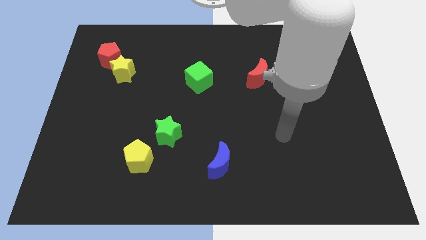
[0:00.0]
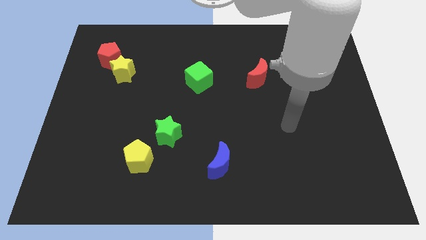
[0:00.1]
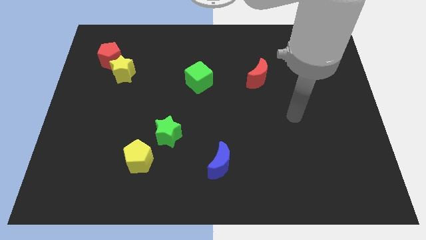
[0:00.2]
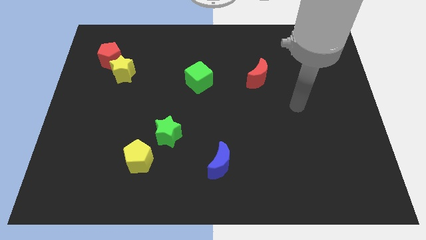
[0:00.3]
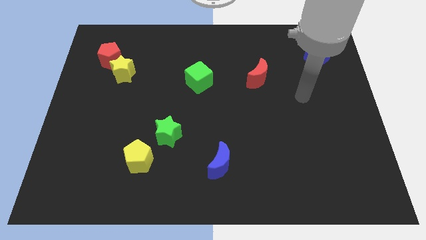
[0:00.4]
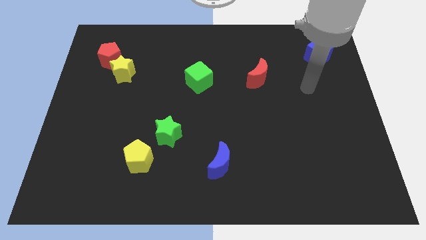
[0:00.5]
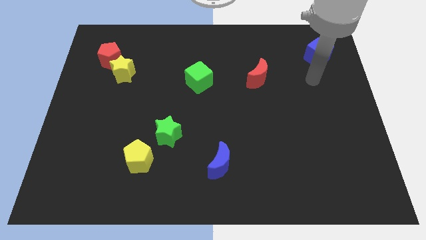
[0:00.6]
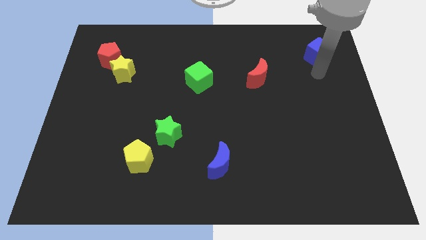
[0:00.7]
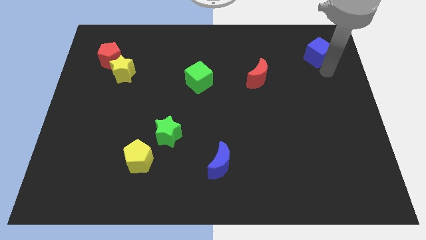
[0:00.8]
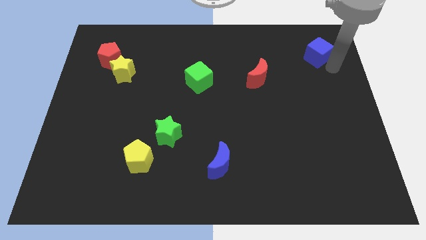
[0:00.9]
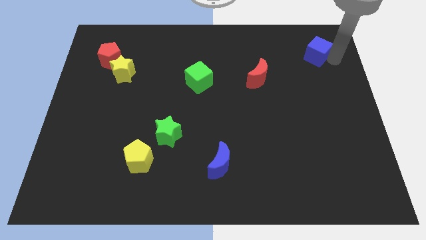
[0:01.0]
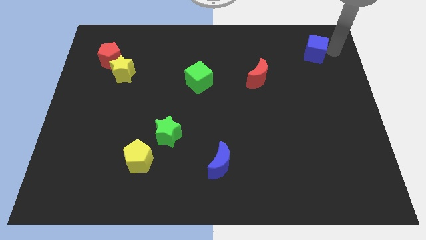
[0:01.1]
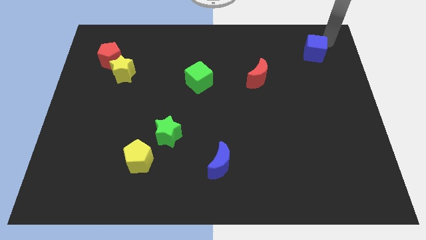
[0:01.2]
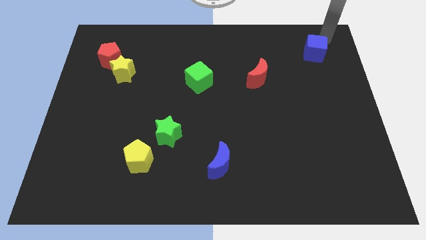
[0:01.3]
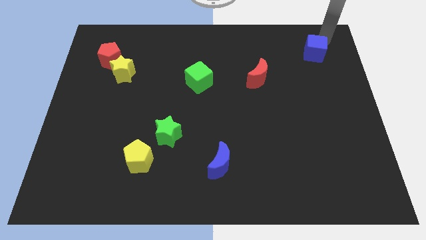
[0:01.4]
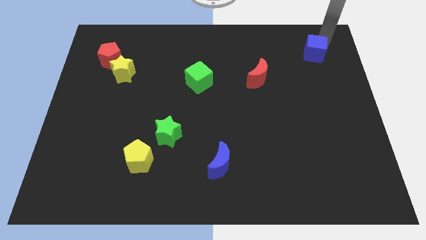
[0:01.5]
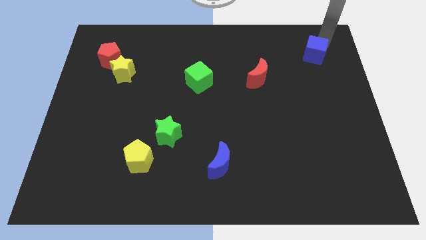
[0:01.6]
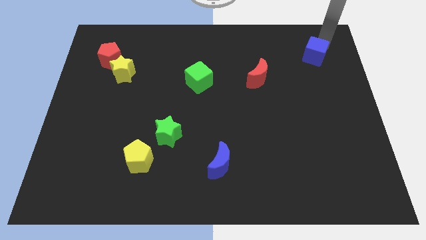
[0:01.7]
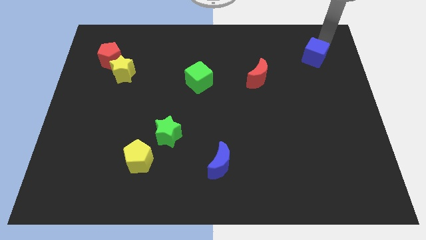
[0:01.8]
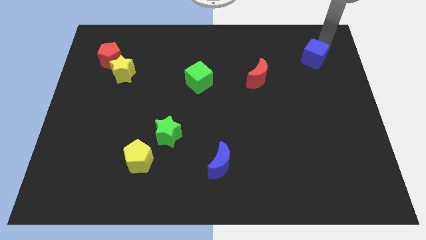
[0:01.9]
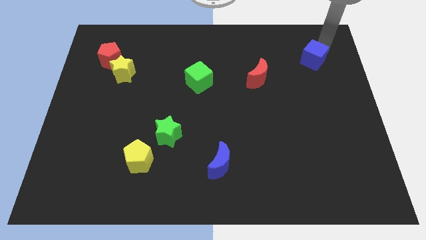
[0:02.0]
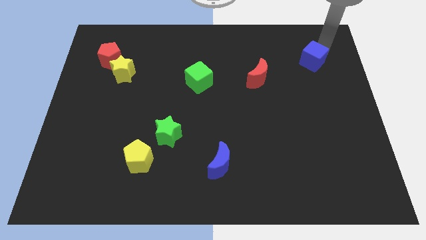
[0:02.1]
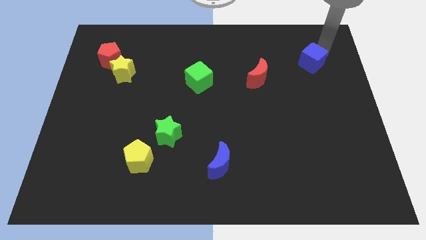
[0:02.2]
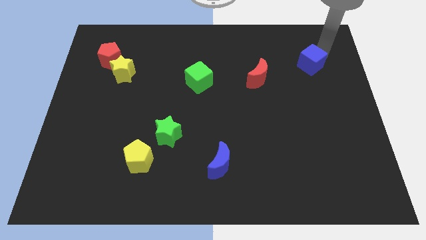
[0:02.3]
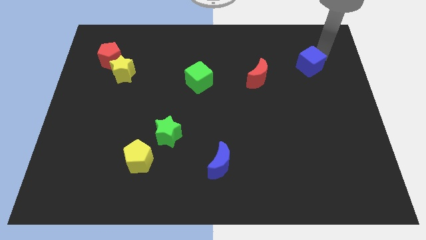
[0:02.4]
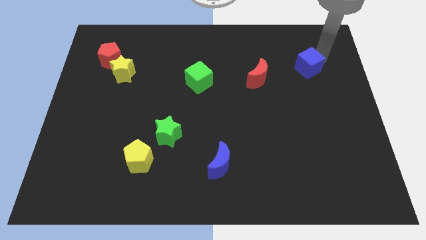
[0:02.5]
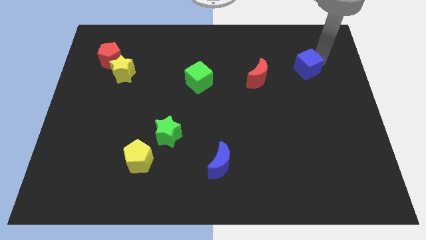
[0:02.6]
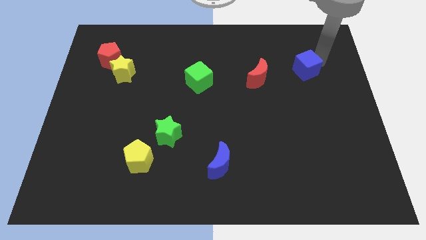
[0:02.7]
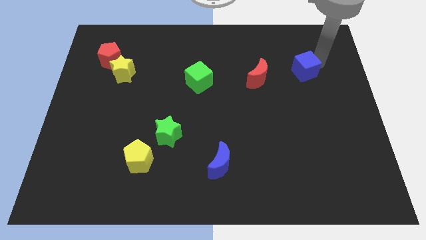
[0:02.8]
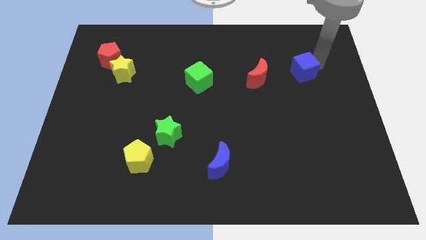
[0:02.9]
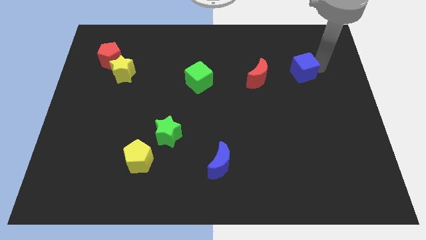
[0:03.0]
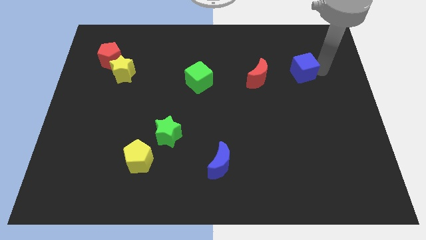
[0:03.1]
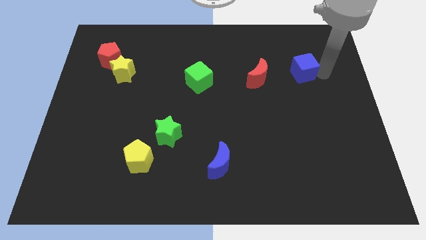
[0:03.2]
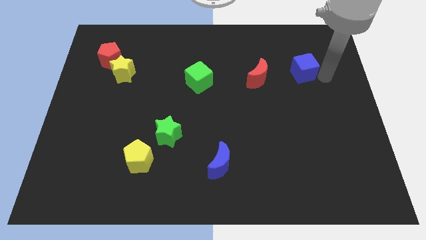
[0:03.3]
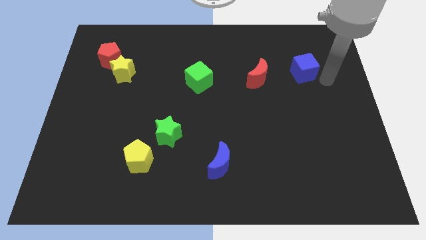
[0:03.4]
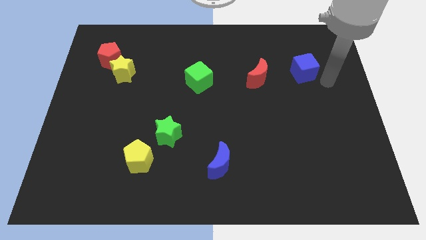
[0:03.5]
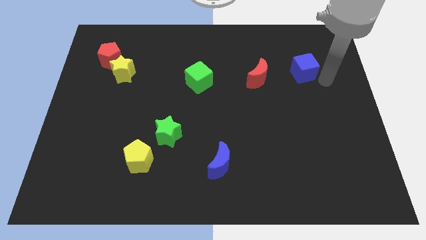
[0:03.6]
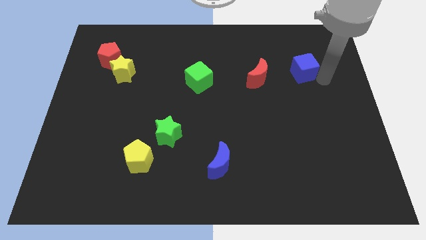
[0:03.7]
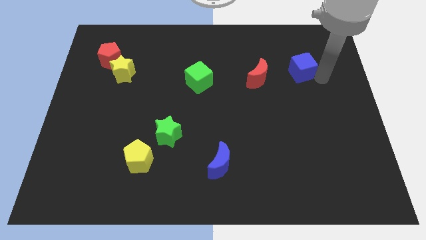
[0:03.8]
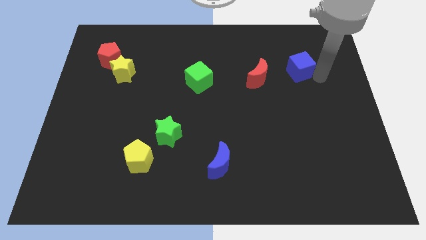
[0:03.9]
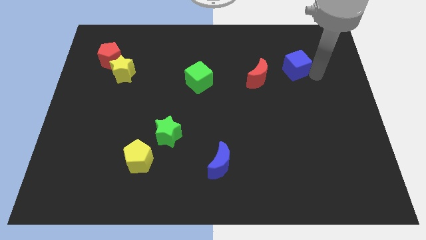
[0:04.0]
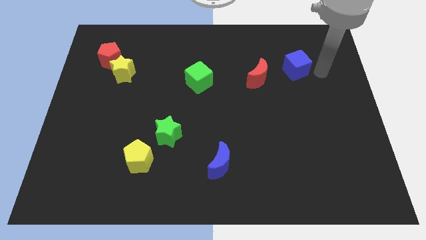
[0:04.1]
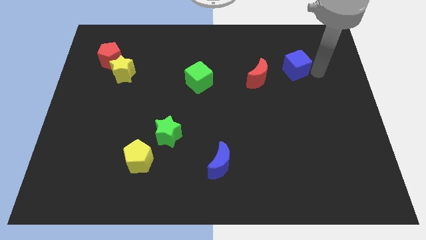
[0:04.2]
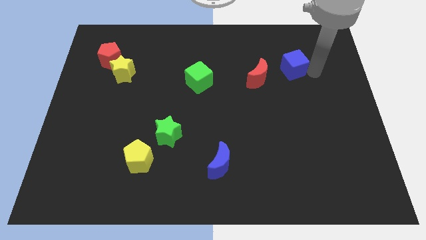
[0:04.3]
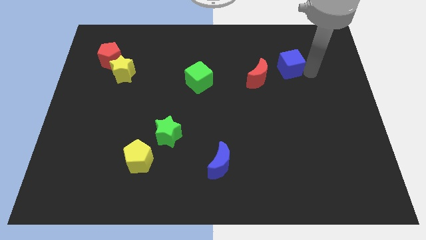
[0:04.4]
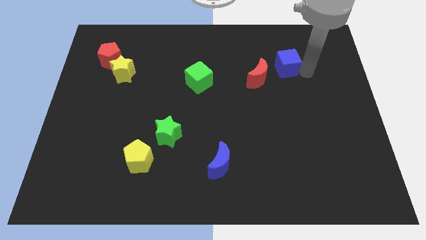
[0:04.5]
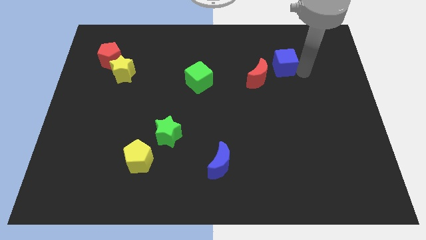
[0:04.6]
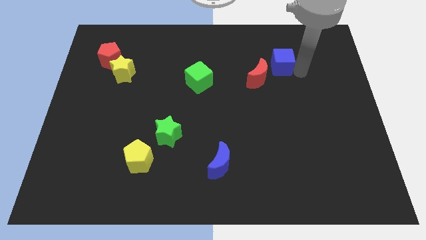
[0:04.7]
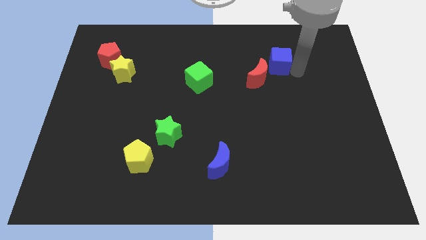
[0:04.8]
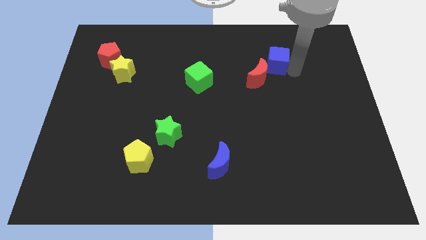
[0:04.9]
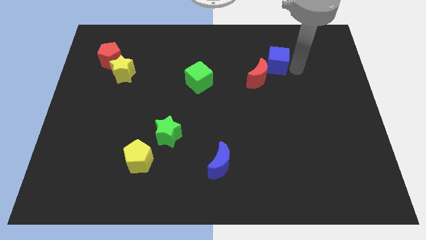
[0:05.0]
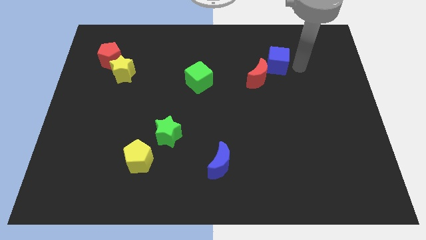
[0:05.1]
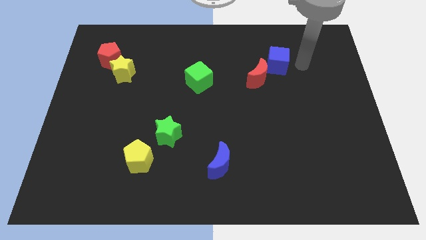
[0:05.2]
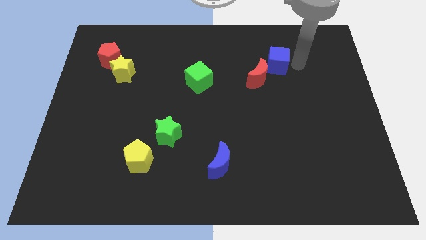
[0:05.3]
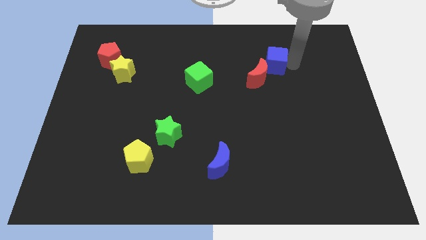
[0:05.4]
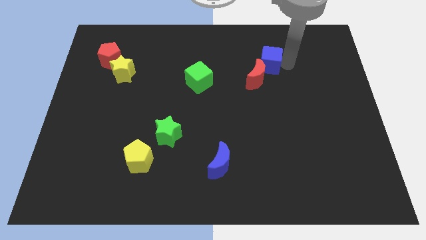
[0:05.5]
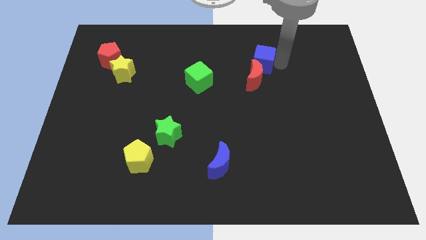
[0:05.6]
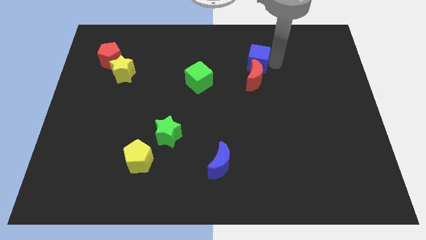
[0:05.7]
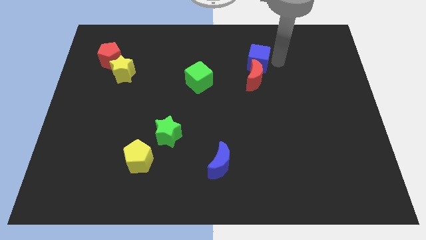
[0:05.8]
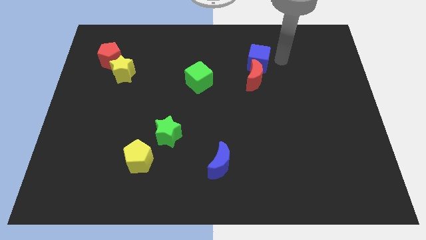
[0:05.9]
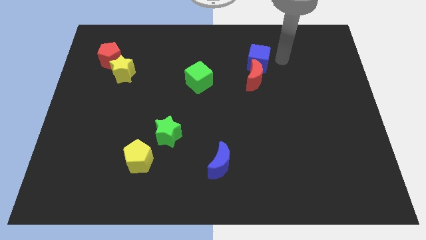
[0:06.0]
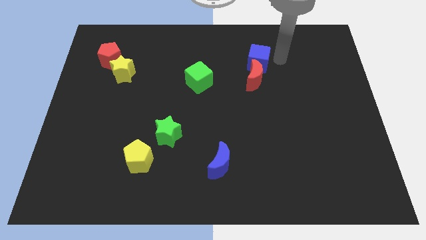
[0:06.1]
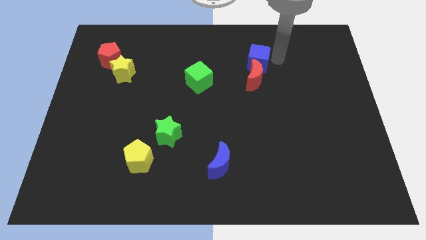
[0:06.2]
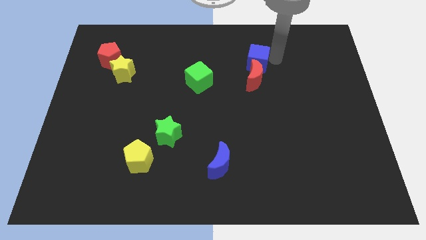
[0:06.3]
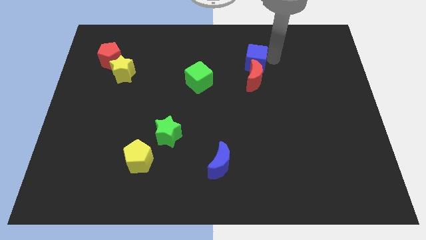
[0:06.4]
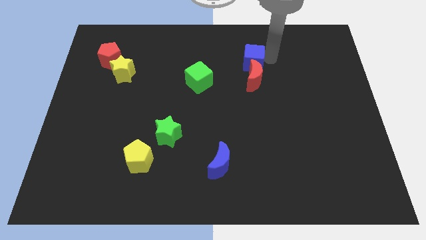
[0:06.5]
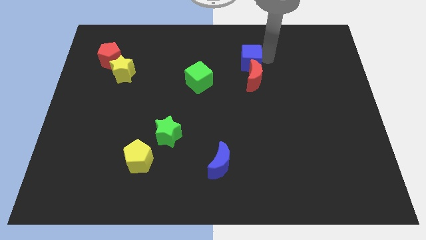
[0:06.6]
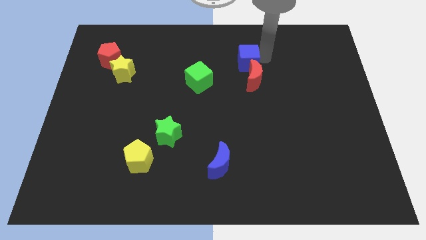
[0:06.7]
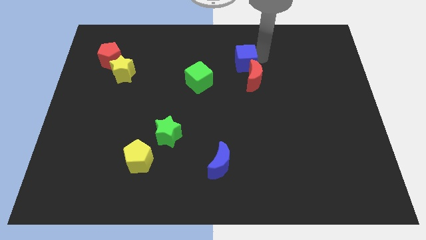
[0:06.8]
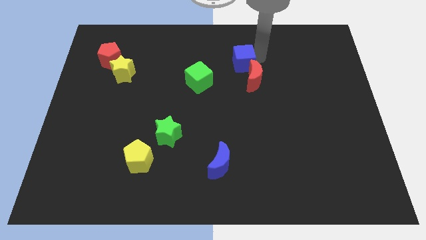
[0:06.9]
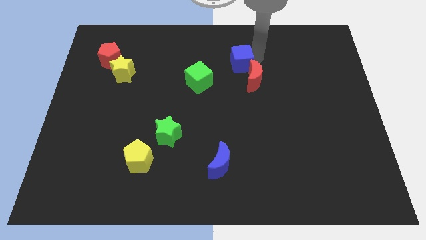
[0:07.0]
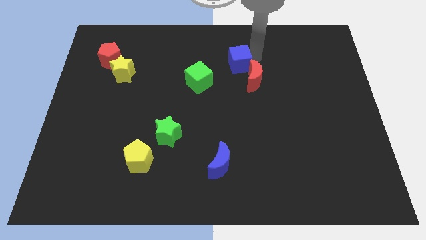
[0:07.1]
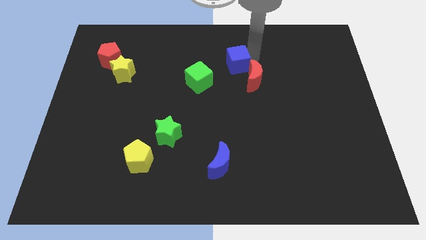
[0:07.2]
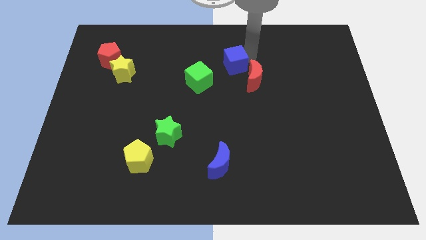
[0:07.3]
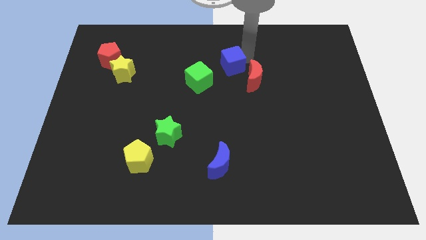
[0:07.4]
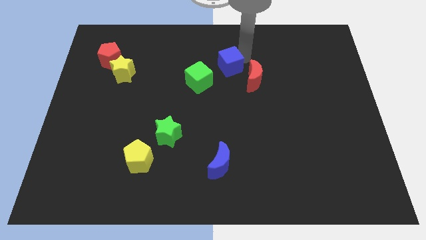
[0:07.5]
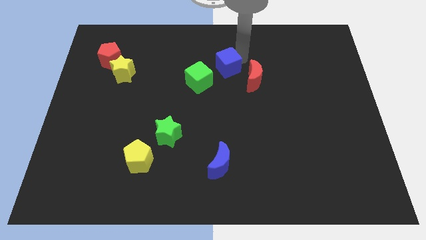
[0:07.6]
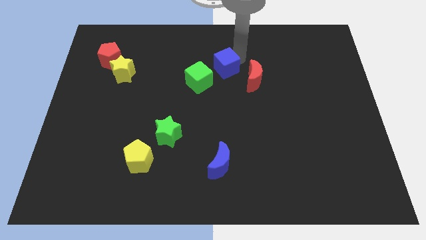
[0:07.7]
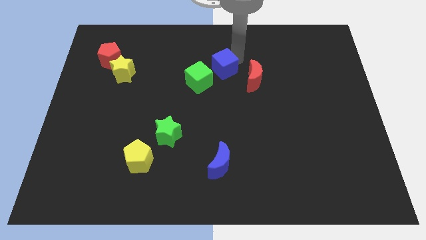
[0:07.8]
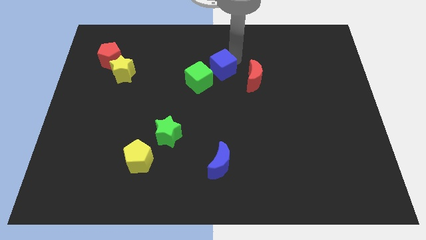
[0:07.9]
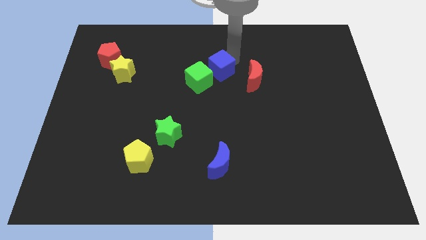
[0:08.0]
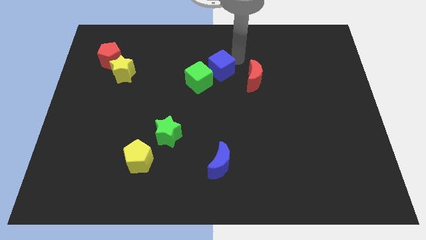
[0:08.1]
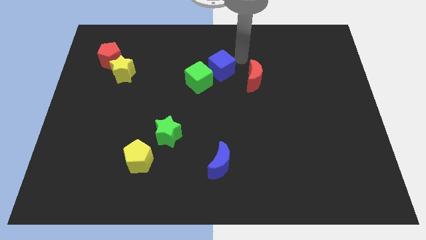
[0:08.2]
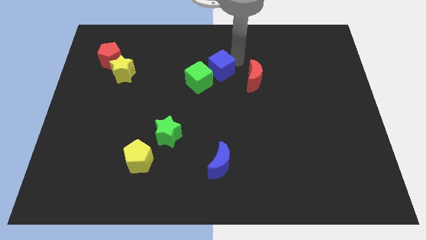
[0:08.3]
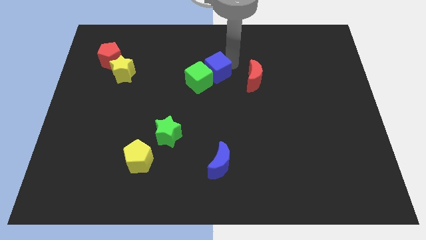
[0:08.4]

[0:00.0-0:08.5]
put the blue cube close to the green cube
